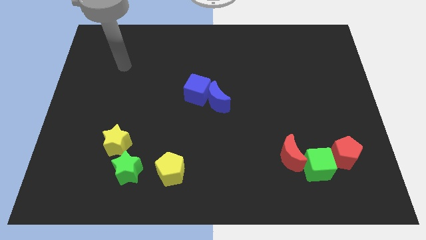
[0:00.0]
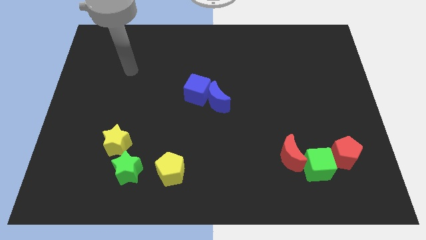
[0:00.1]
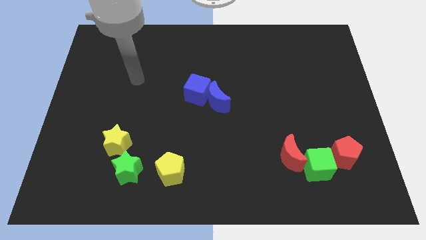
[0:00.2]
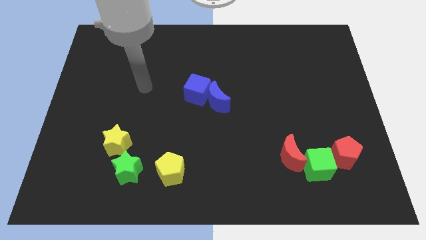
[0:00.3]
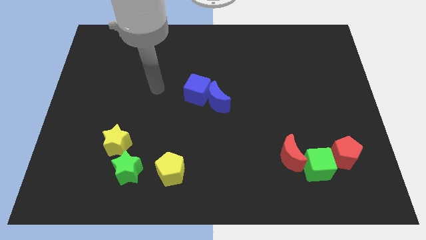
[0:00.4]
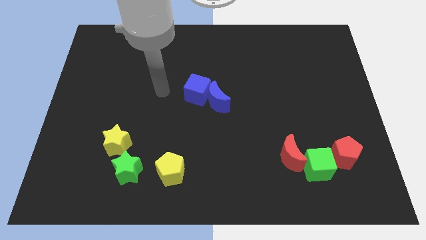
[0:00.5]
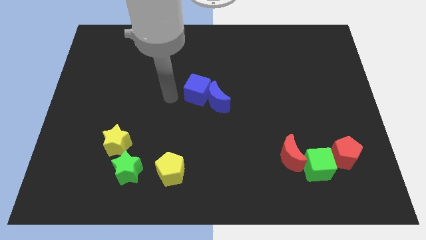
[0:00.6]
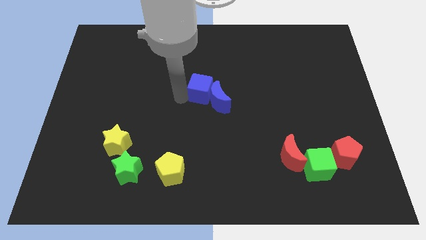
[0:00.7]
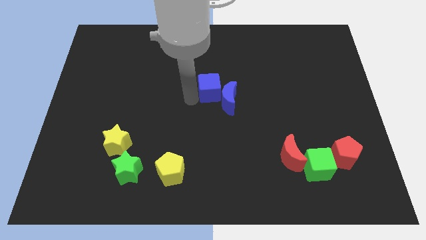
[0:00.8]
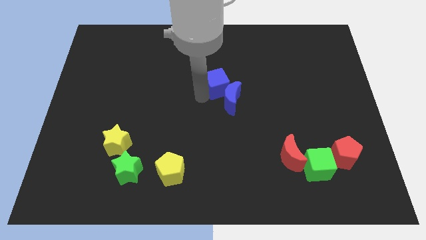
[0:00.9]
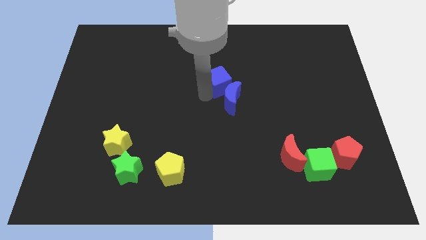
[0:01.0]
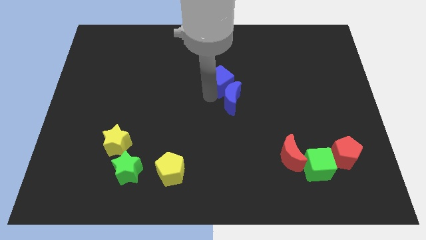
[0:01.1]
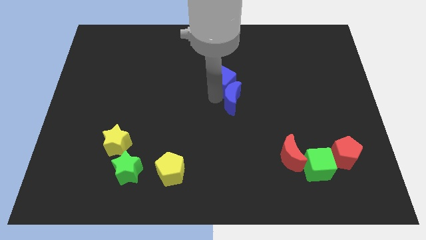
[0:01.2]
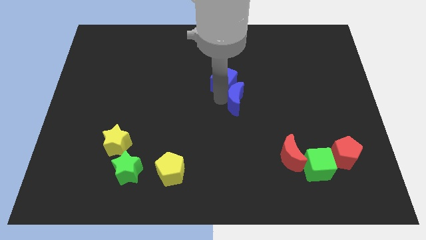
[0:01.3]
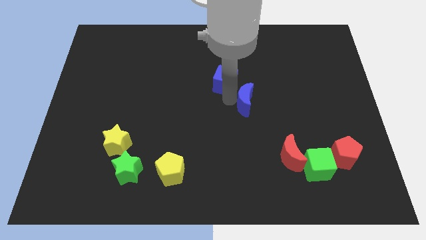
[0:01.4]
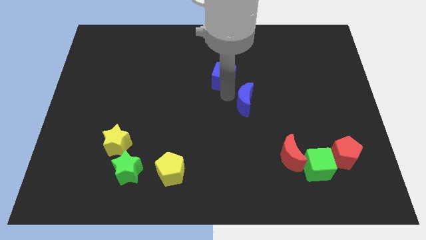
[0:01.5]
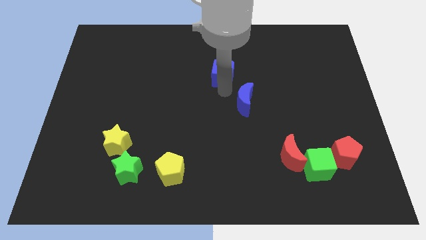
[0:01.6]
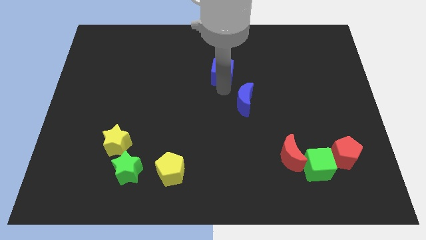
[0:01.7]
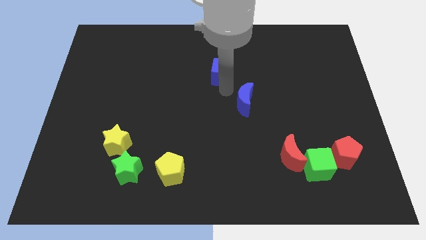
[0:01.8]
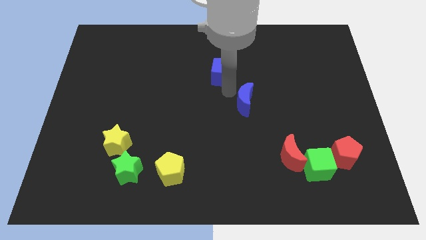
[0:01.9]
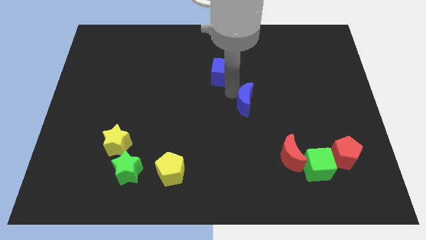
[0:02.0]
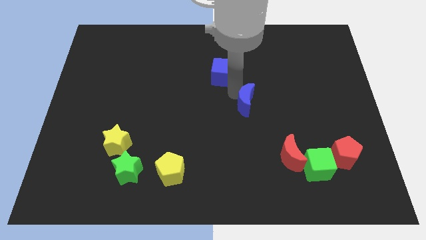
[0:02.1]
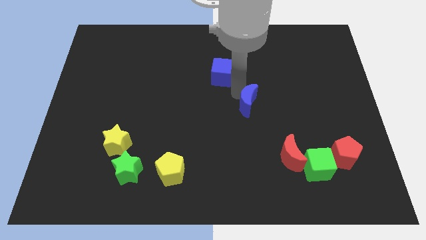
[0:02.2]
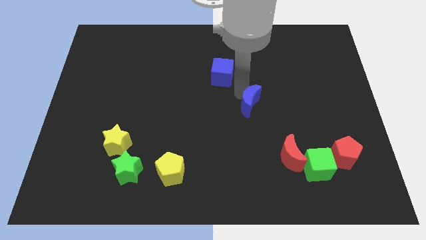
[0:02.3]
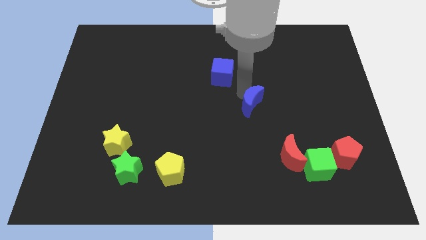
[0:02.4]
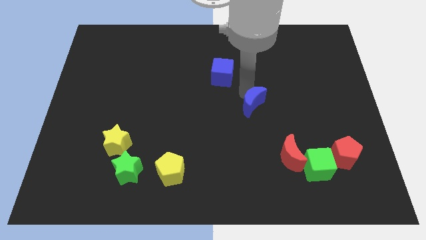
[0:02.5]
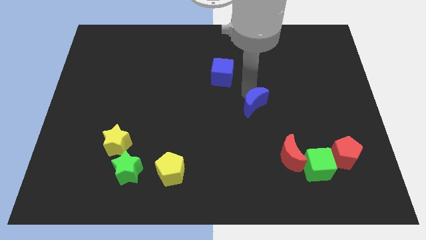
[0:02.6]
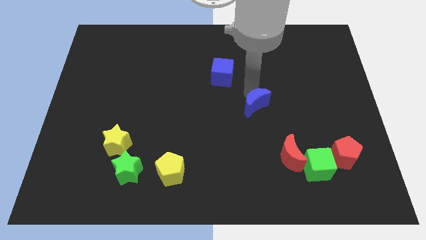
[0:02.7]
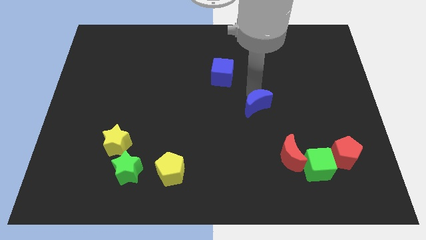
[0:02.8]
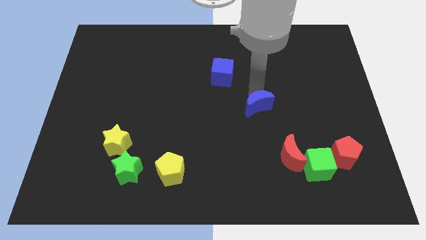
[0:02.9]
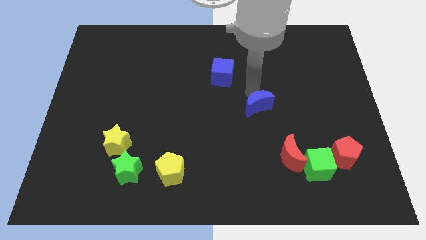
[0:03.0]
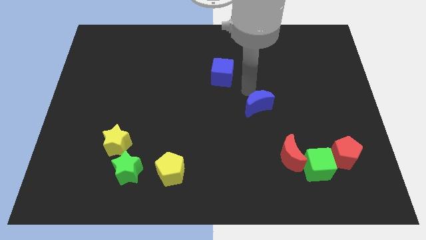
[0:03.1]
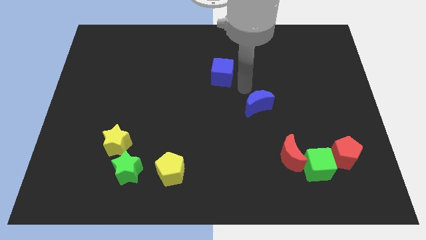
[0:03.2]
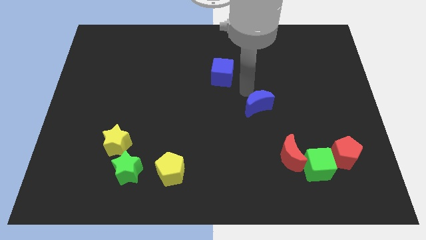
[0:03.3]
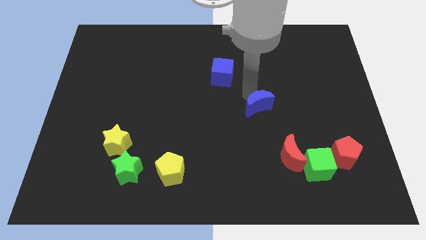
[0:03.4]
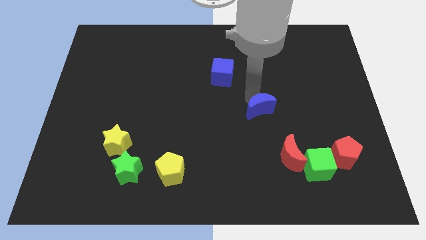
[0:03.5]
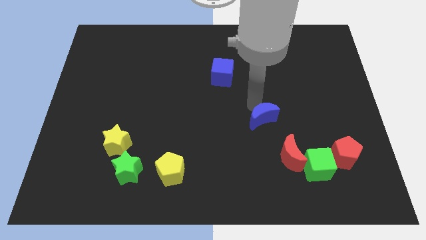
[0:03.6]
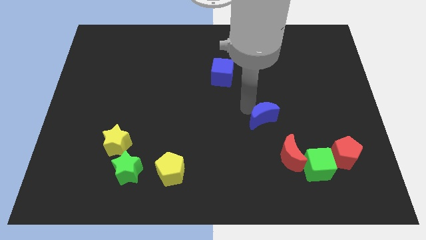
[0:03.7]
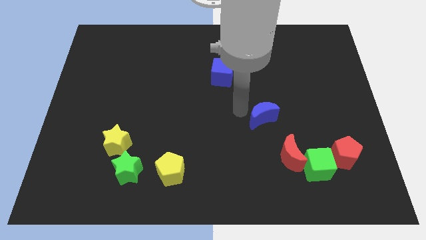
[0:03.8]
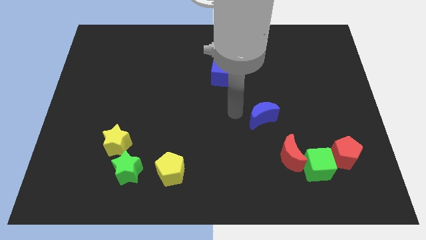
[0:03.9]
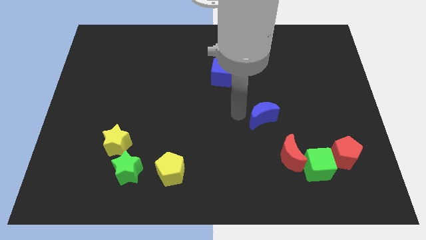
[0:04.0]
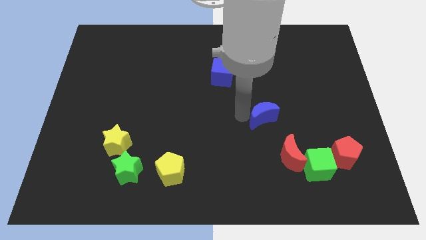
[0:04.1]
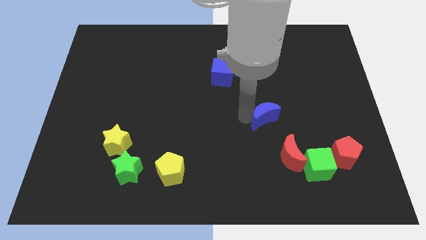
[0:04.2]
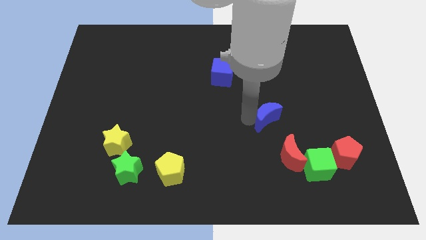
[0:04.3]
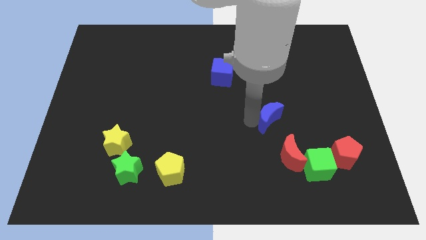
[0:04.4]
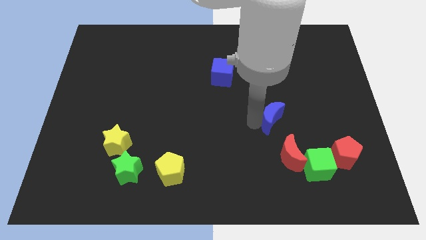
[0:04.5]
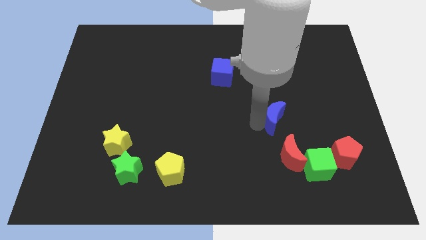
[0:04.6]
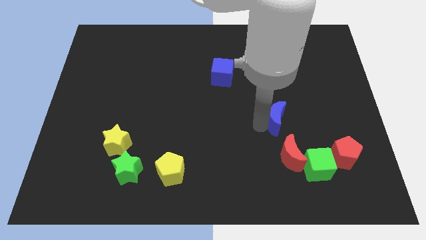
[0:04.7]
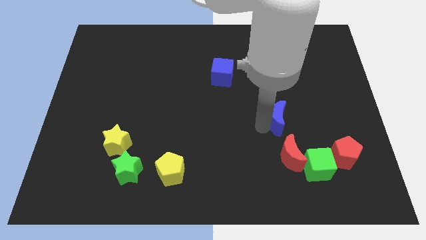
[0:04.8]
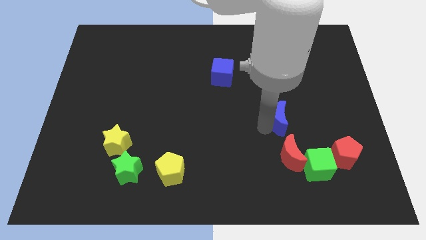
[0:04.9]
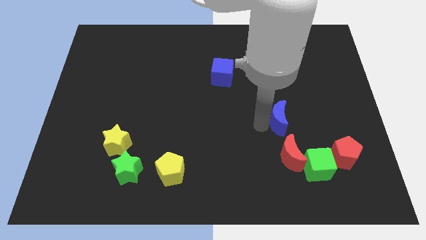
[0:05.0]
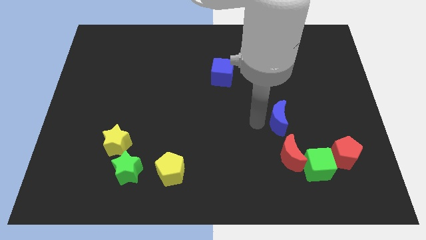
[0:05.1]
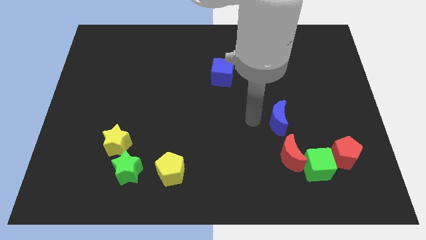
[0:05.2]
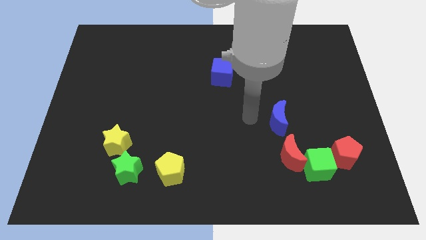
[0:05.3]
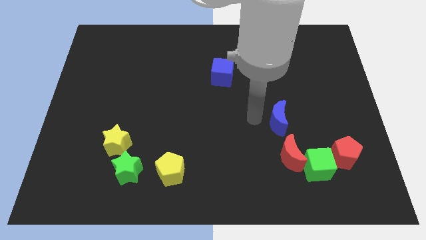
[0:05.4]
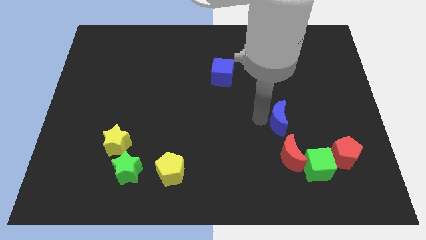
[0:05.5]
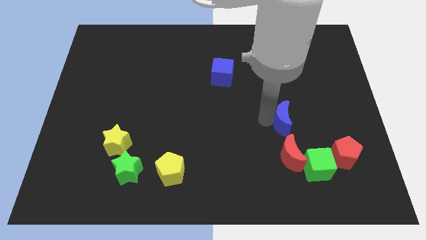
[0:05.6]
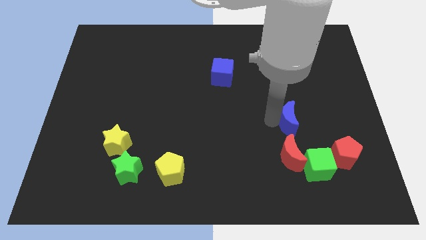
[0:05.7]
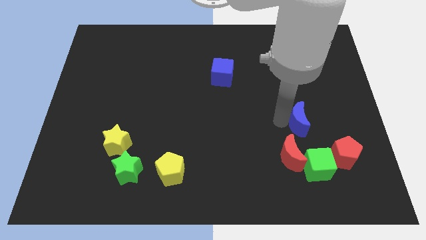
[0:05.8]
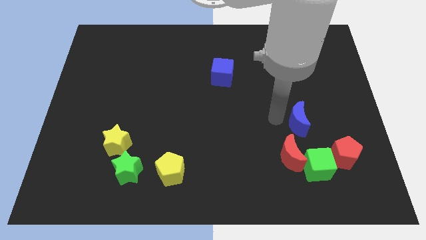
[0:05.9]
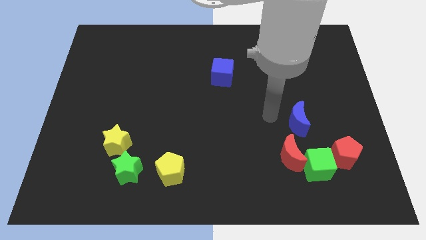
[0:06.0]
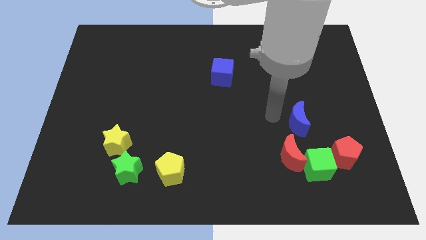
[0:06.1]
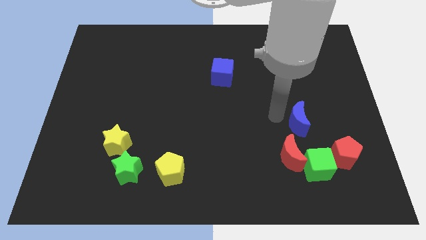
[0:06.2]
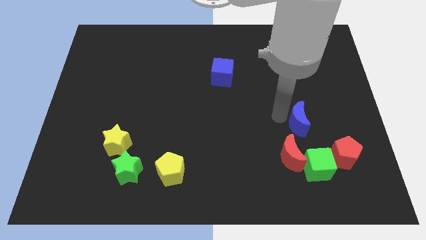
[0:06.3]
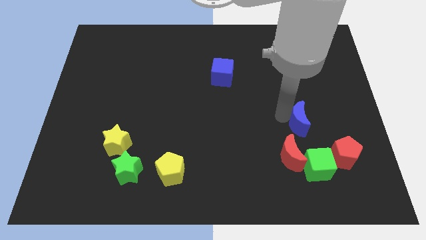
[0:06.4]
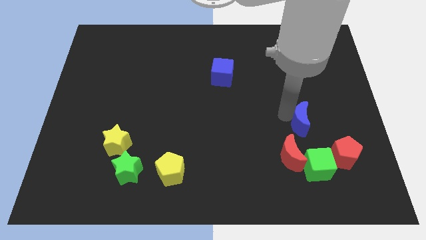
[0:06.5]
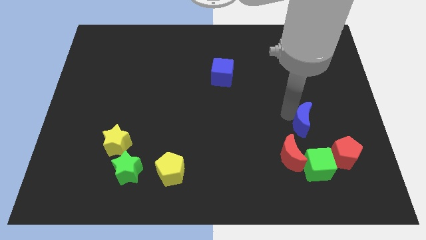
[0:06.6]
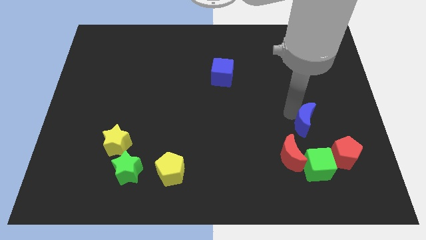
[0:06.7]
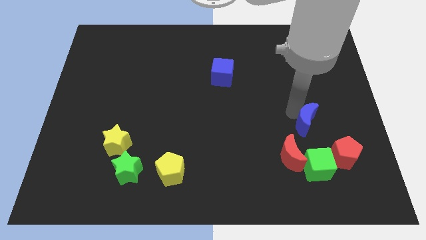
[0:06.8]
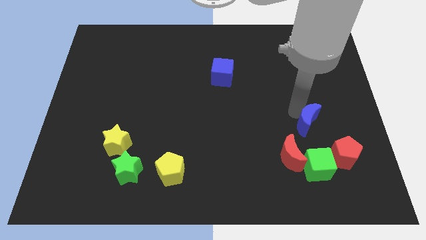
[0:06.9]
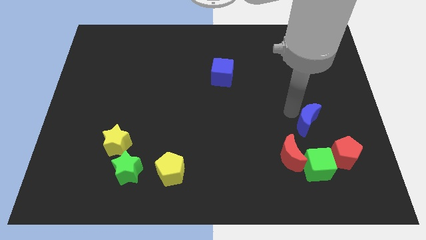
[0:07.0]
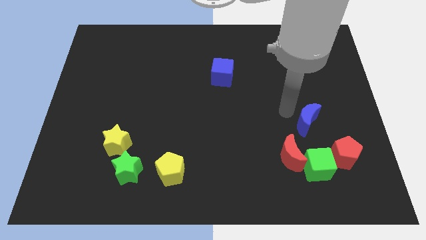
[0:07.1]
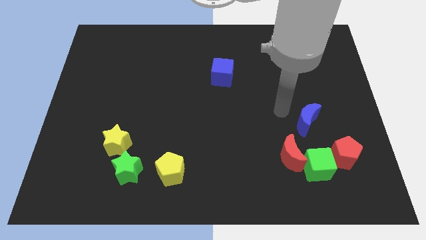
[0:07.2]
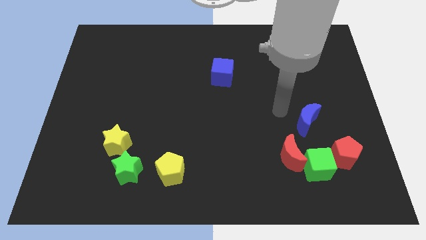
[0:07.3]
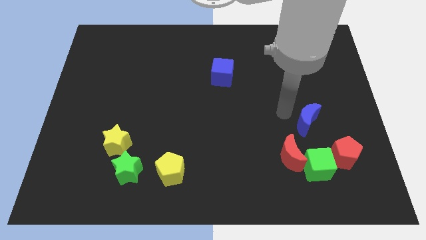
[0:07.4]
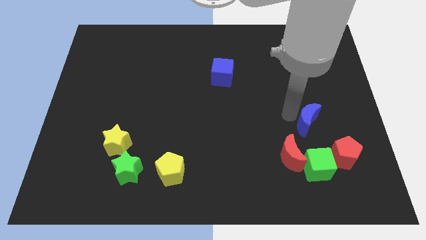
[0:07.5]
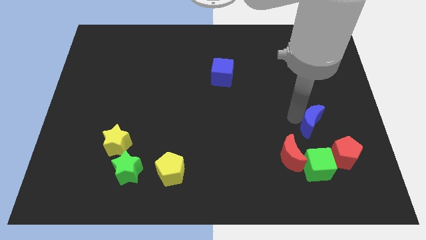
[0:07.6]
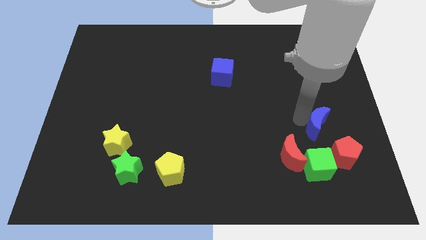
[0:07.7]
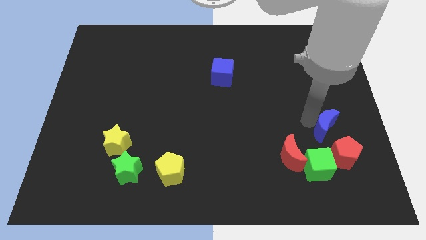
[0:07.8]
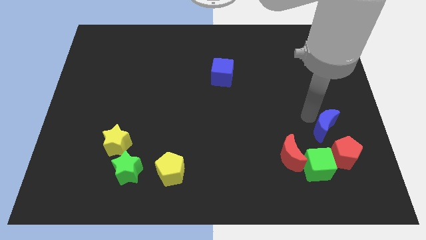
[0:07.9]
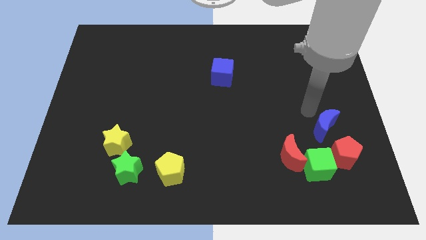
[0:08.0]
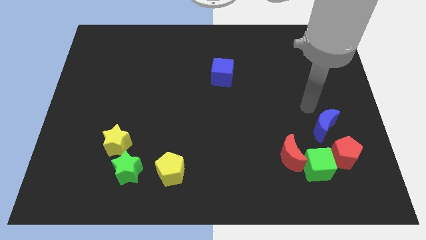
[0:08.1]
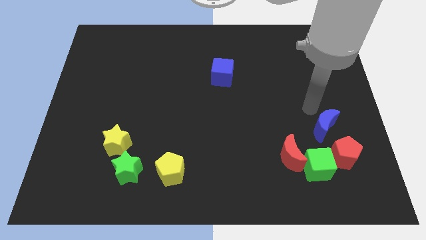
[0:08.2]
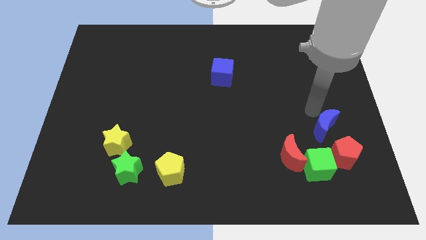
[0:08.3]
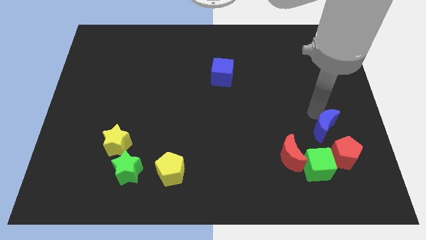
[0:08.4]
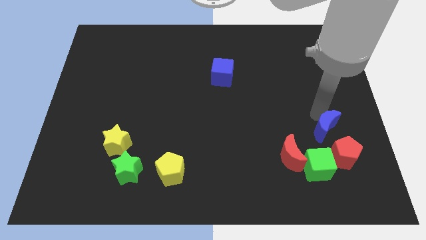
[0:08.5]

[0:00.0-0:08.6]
move the blue moon to the top right of the green cube
